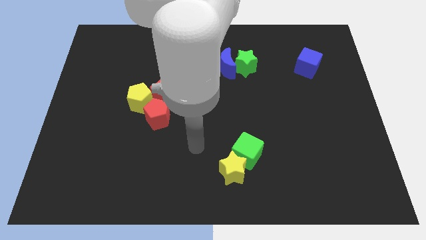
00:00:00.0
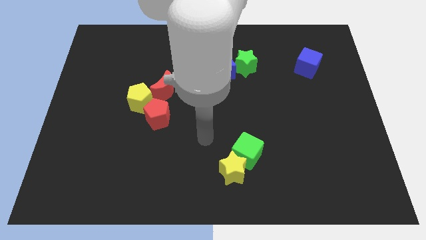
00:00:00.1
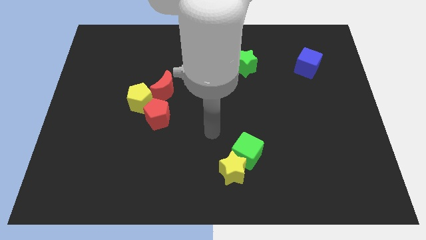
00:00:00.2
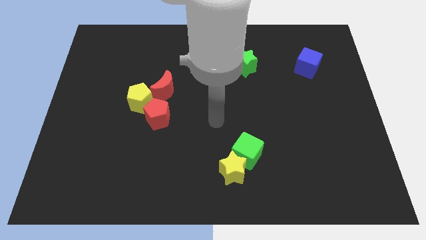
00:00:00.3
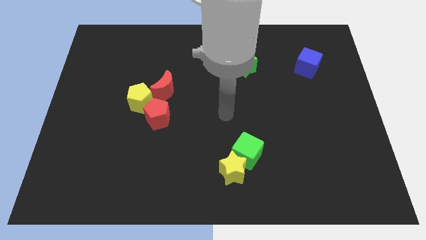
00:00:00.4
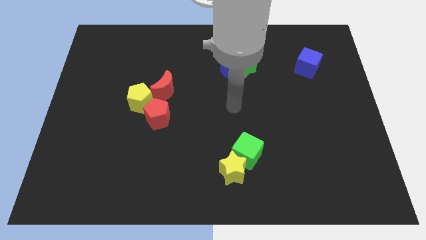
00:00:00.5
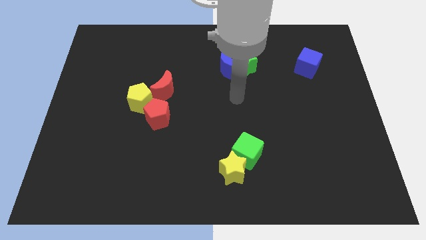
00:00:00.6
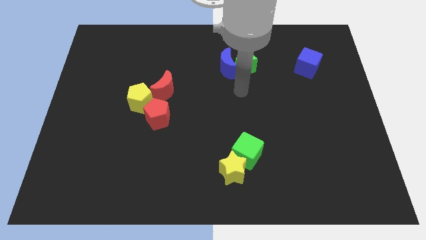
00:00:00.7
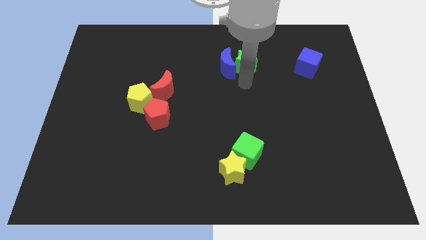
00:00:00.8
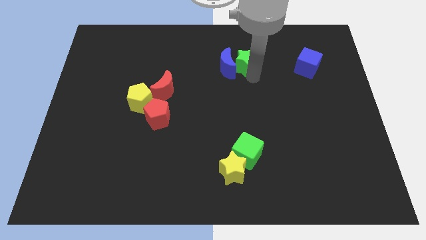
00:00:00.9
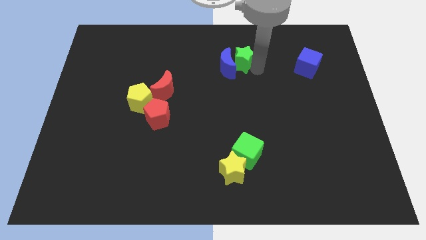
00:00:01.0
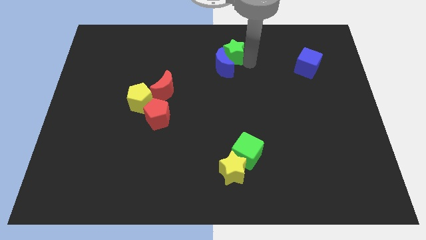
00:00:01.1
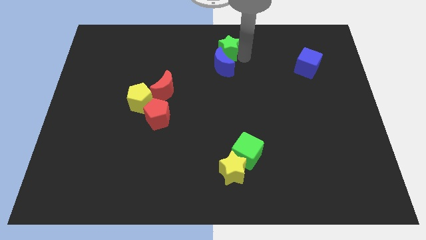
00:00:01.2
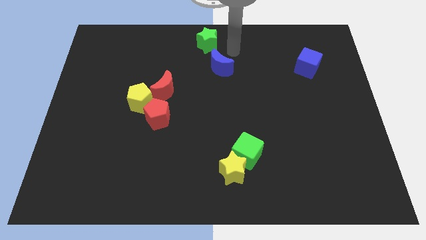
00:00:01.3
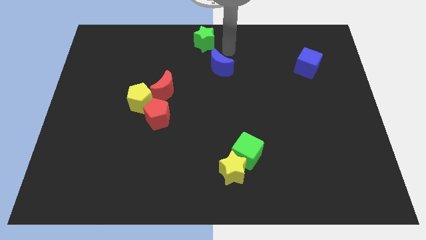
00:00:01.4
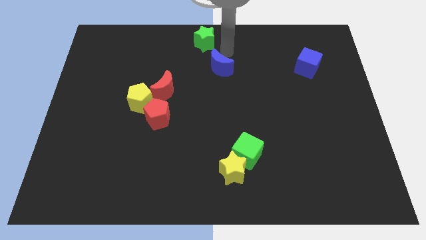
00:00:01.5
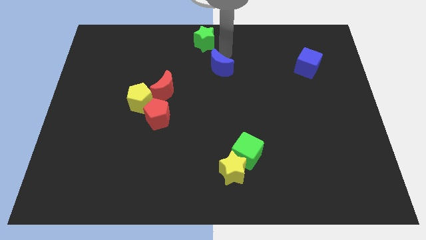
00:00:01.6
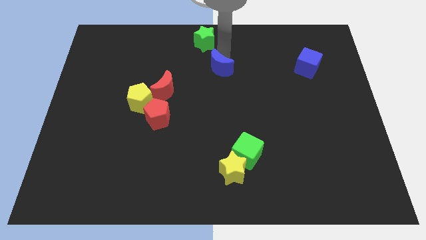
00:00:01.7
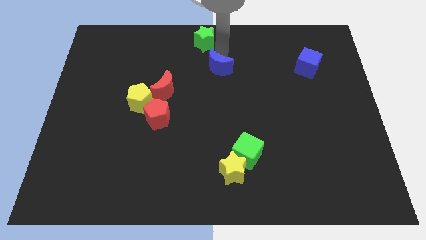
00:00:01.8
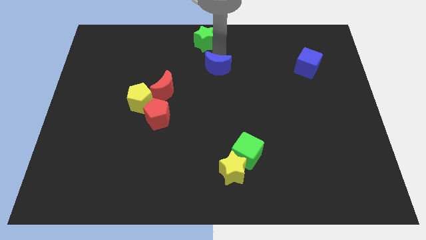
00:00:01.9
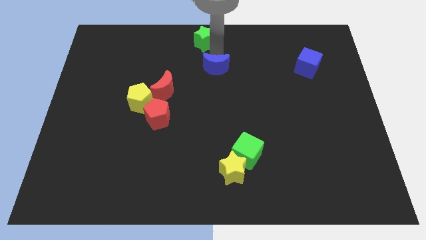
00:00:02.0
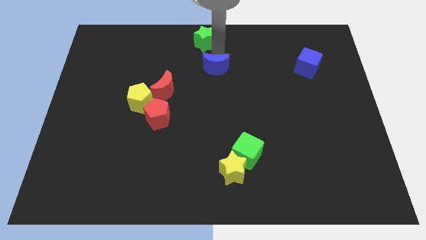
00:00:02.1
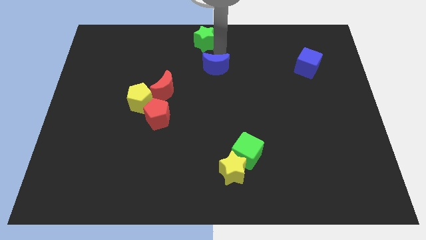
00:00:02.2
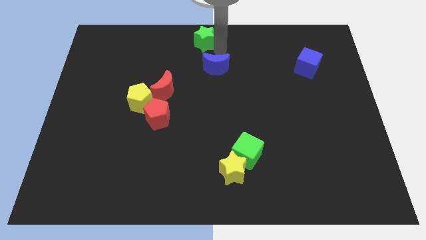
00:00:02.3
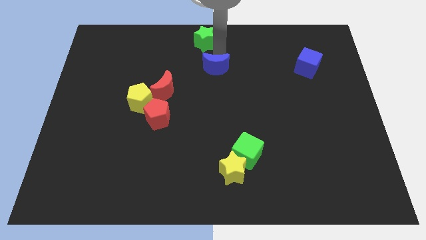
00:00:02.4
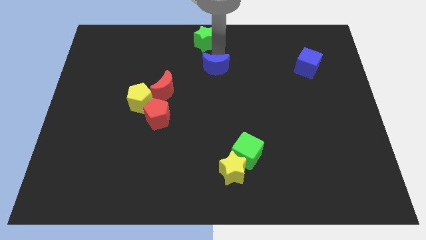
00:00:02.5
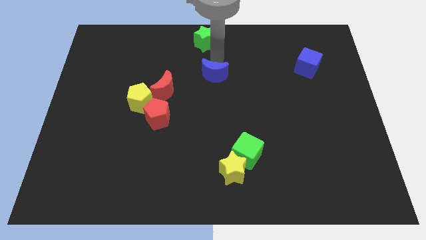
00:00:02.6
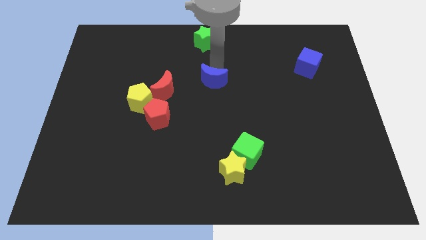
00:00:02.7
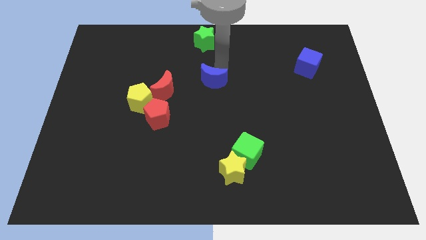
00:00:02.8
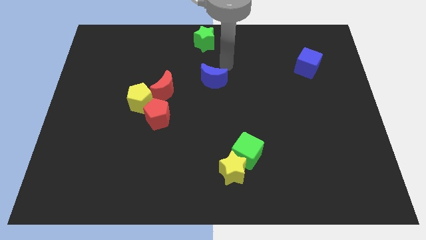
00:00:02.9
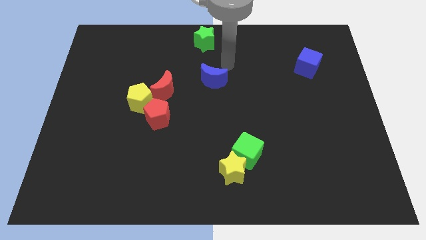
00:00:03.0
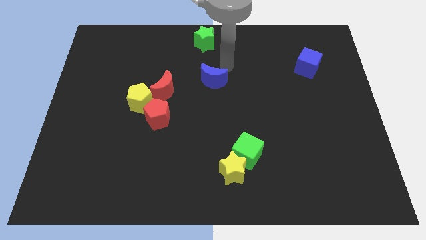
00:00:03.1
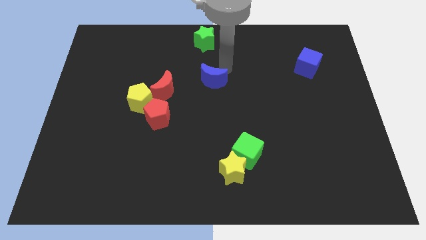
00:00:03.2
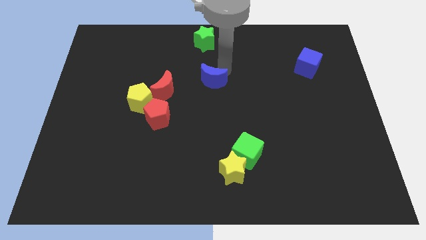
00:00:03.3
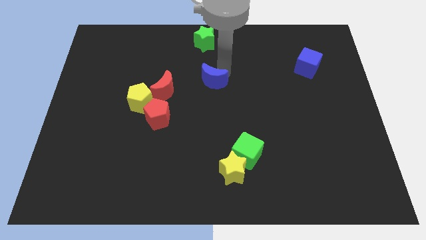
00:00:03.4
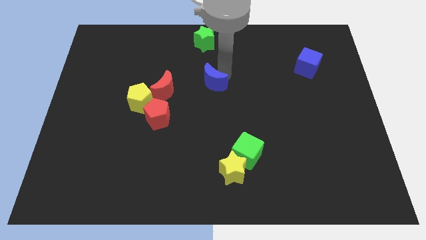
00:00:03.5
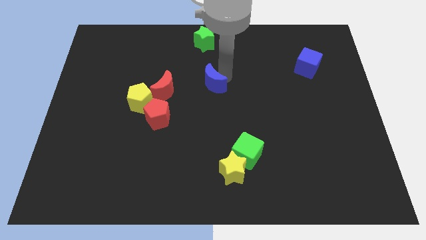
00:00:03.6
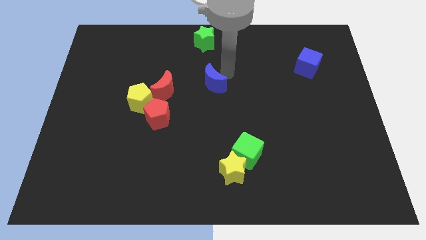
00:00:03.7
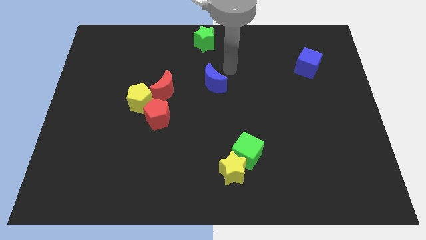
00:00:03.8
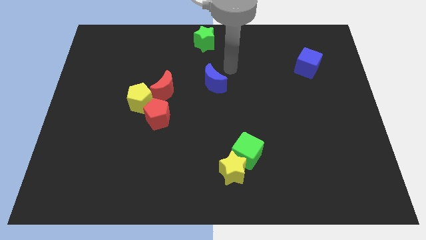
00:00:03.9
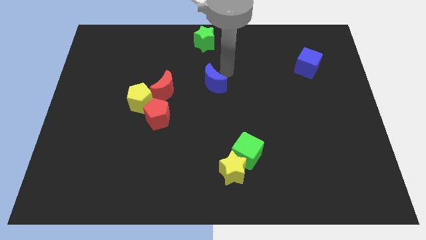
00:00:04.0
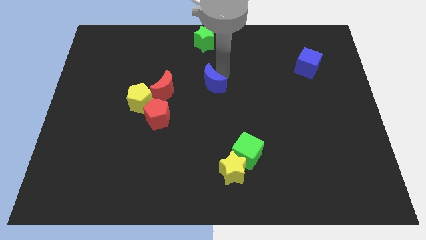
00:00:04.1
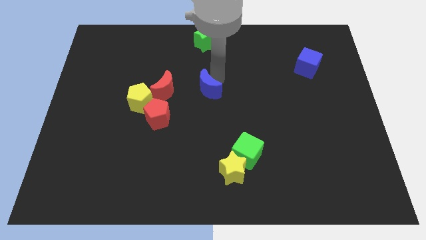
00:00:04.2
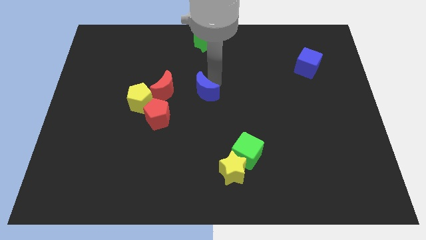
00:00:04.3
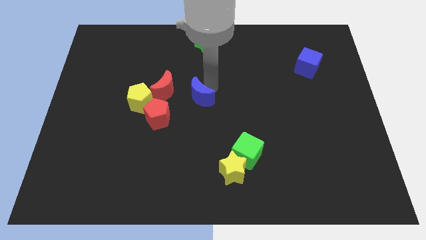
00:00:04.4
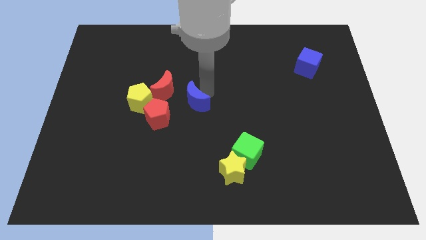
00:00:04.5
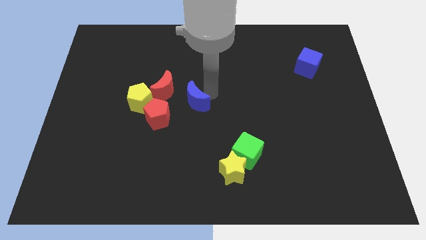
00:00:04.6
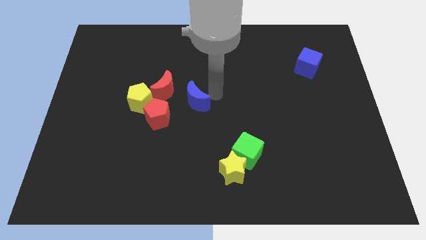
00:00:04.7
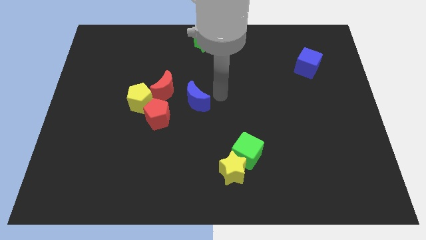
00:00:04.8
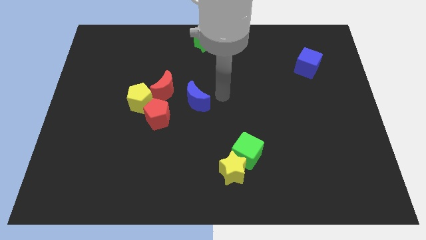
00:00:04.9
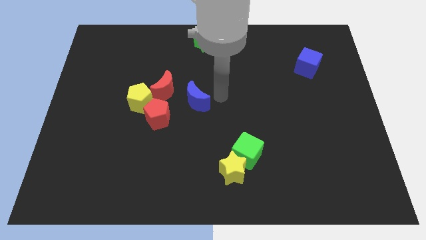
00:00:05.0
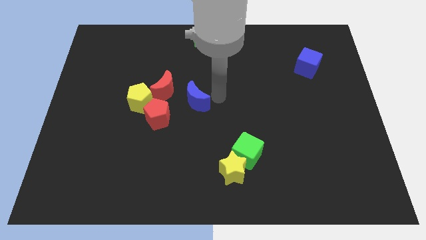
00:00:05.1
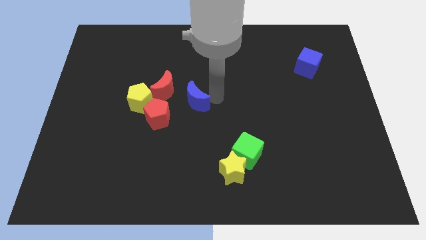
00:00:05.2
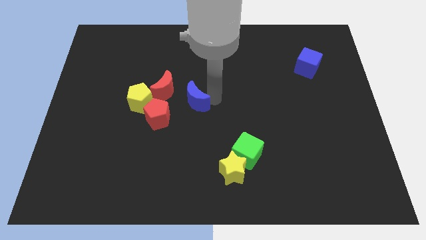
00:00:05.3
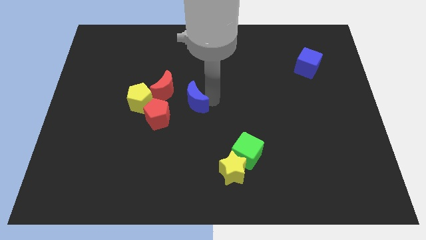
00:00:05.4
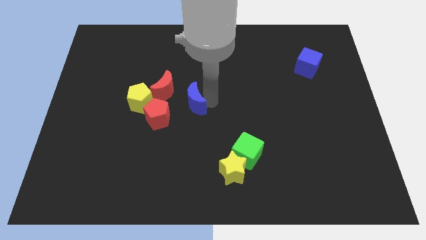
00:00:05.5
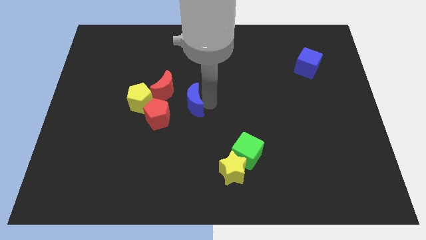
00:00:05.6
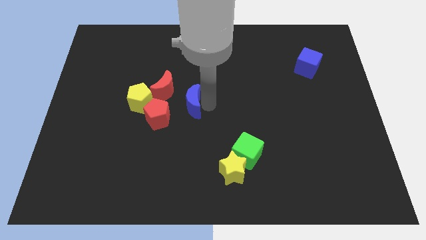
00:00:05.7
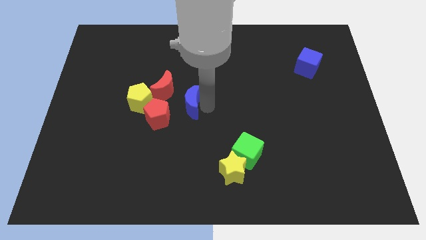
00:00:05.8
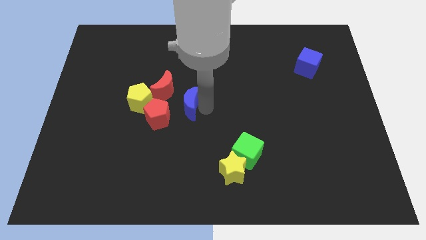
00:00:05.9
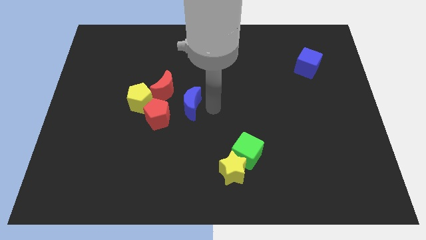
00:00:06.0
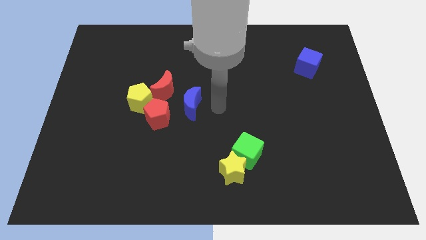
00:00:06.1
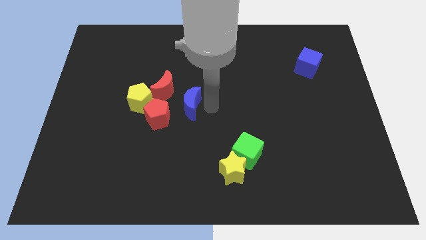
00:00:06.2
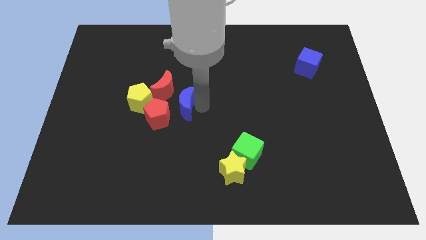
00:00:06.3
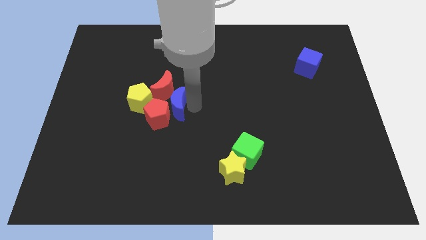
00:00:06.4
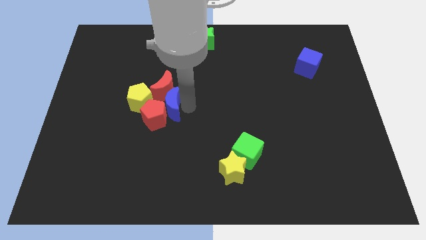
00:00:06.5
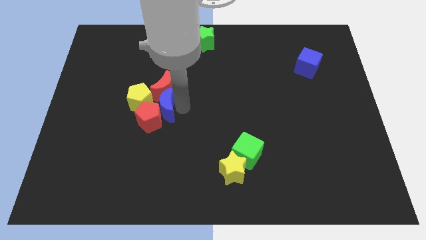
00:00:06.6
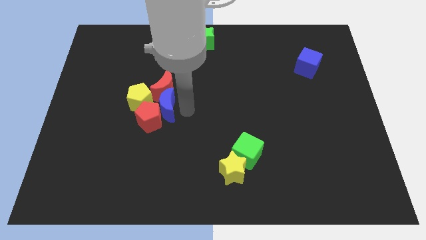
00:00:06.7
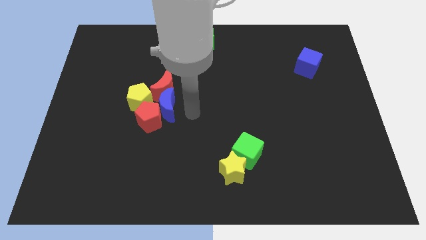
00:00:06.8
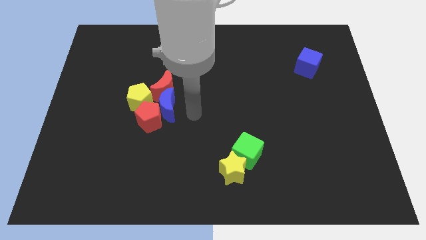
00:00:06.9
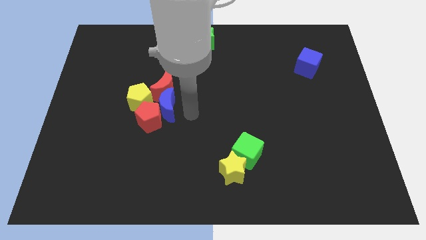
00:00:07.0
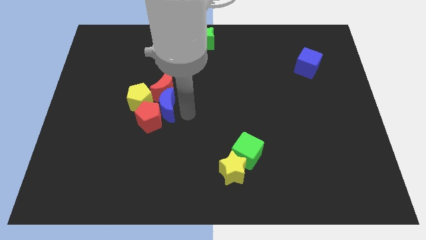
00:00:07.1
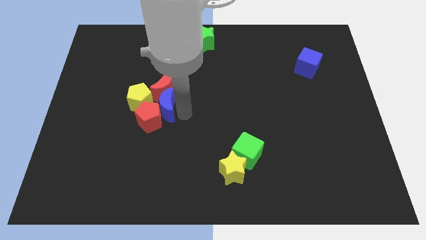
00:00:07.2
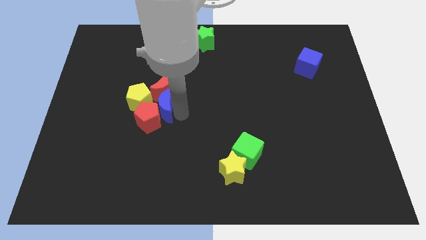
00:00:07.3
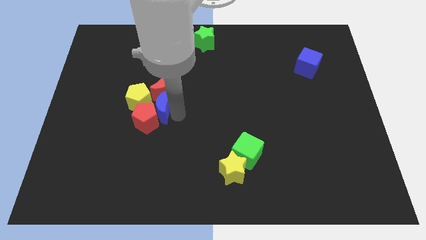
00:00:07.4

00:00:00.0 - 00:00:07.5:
push the blue moon towards the yellow pentagon
